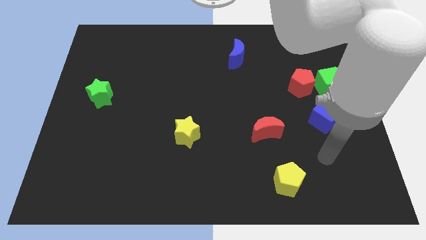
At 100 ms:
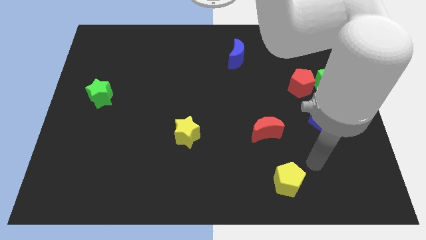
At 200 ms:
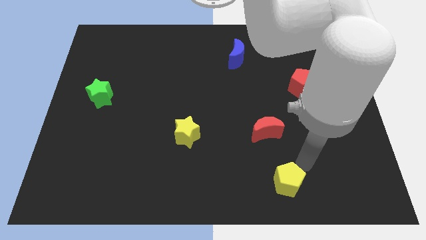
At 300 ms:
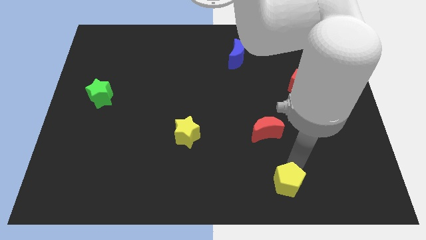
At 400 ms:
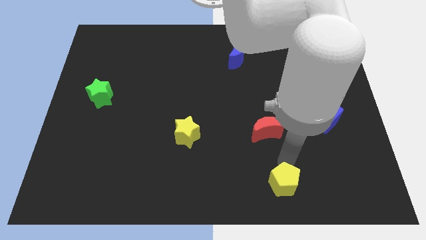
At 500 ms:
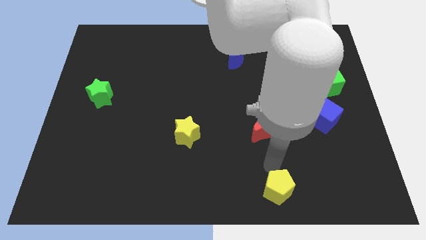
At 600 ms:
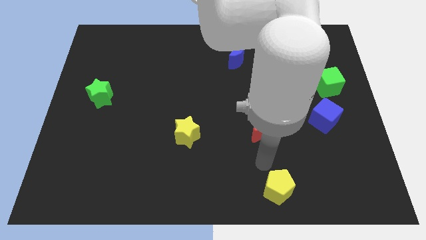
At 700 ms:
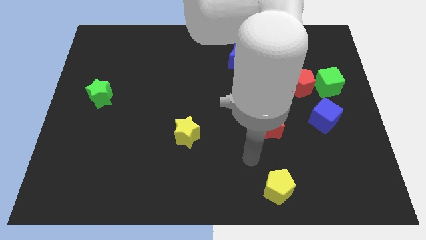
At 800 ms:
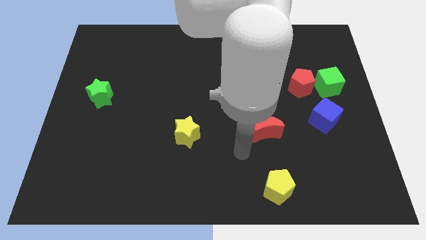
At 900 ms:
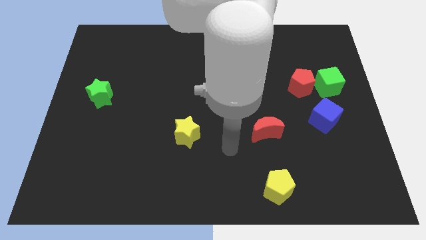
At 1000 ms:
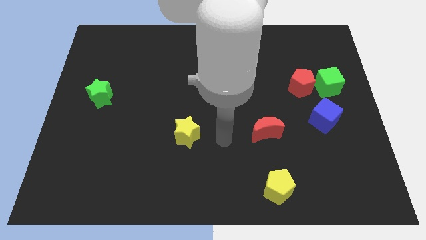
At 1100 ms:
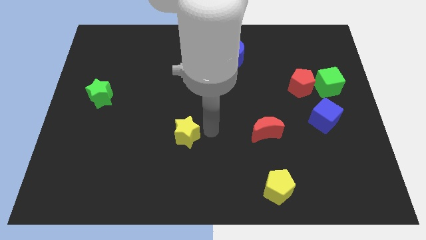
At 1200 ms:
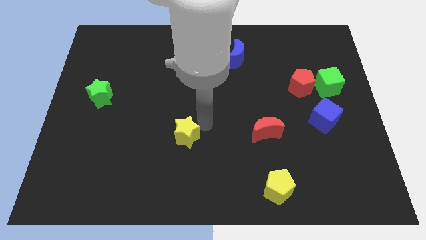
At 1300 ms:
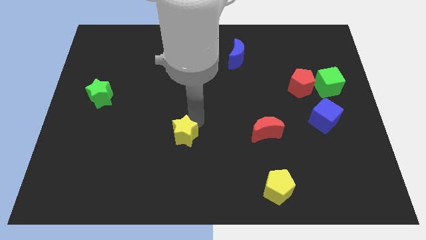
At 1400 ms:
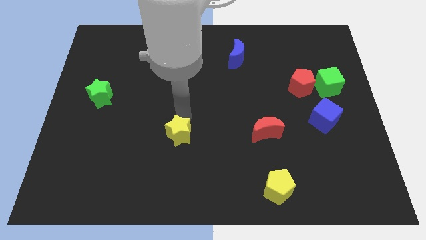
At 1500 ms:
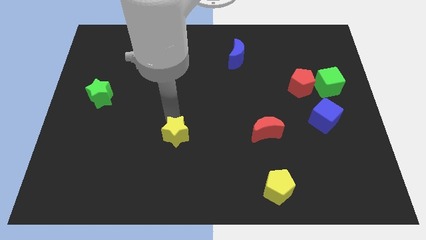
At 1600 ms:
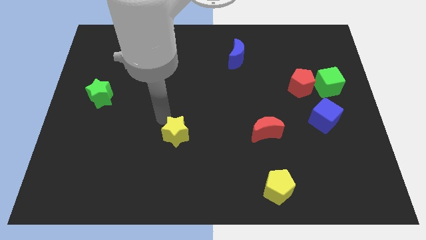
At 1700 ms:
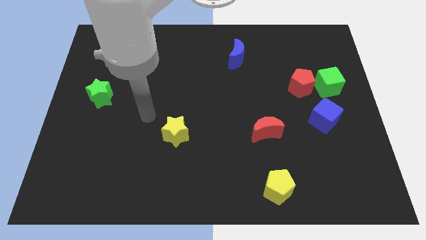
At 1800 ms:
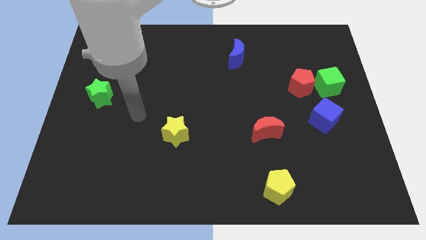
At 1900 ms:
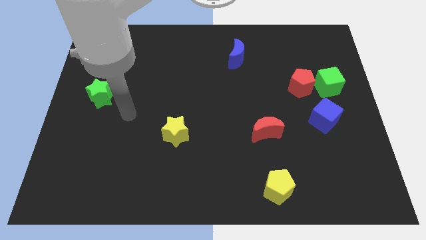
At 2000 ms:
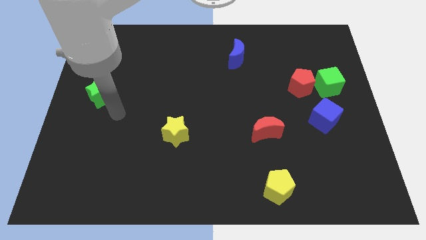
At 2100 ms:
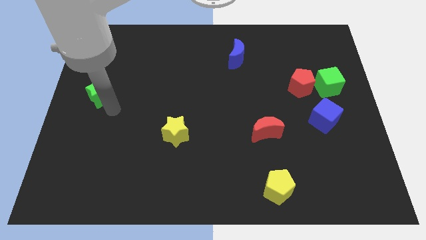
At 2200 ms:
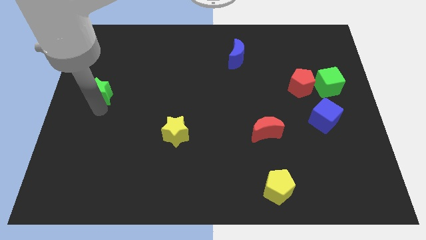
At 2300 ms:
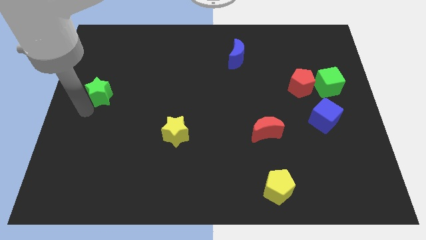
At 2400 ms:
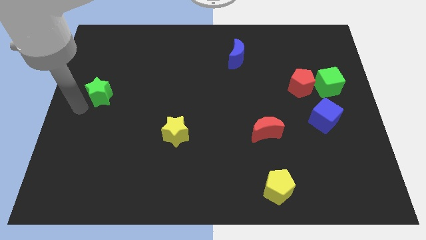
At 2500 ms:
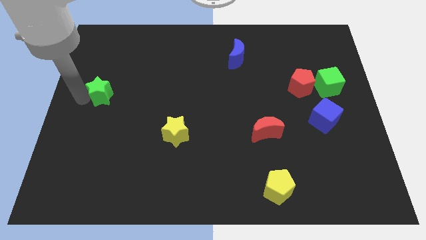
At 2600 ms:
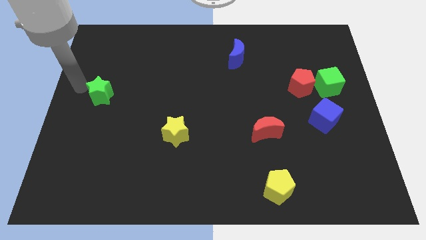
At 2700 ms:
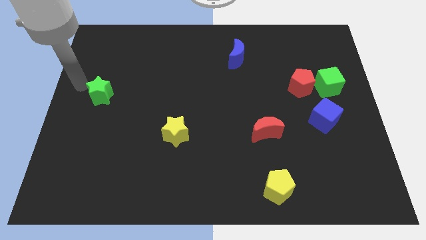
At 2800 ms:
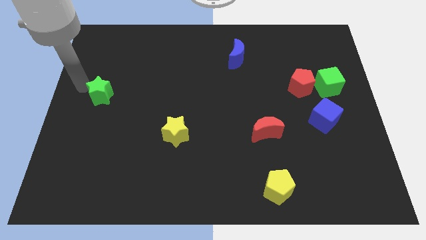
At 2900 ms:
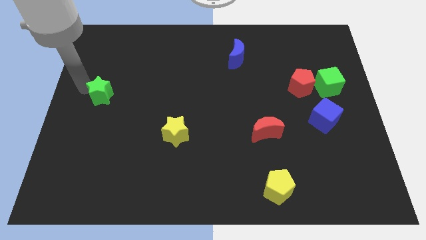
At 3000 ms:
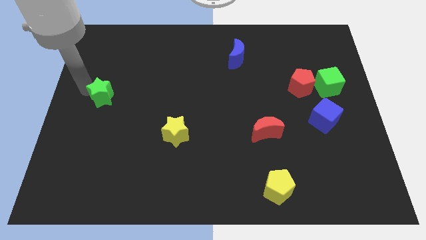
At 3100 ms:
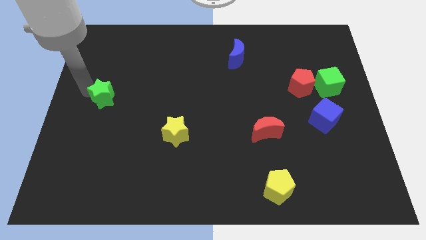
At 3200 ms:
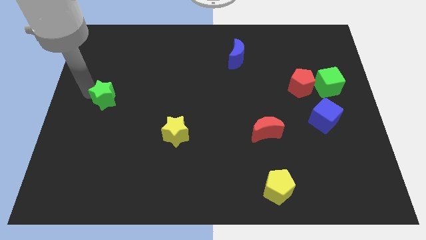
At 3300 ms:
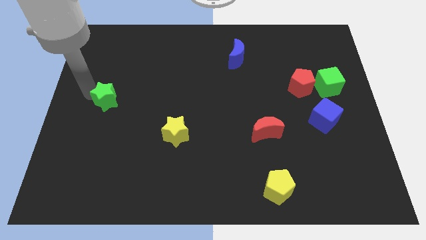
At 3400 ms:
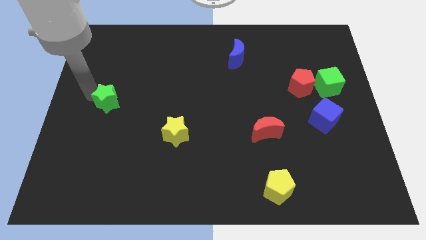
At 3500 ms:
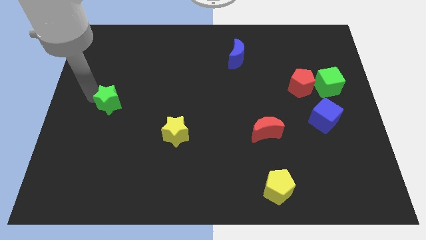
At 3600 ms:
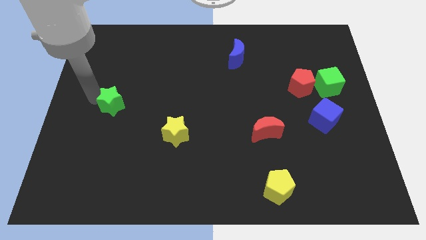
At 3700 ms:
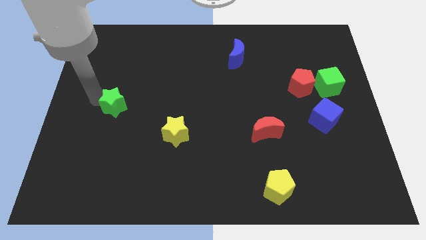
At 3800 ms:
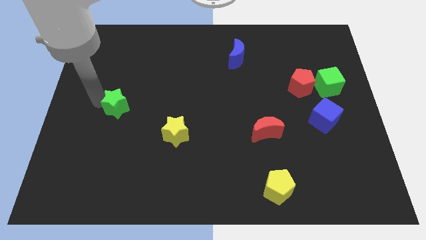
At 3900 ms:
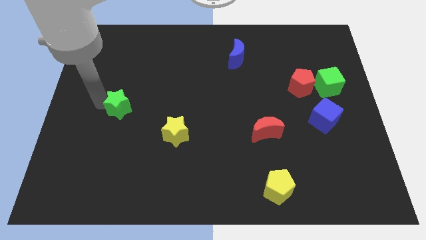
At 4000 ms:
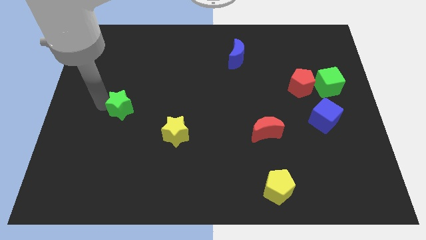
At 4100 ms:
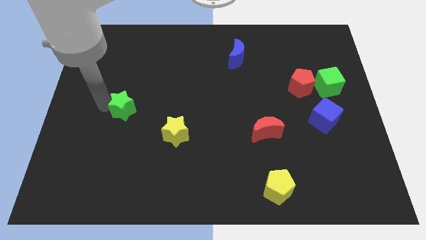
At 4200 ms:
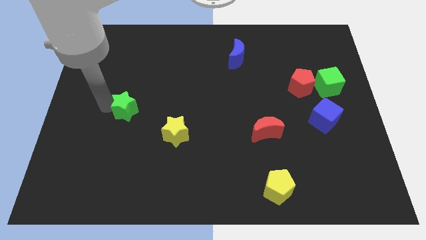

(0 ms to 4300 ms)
slightly slide the green star downwards and then right

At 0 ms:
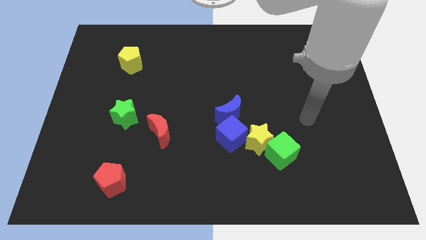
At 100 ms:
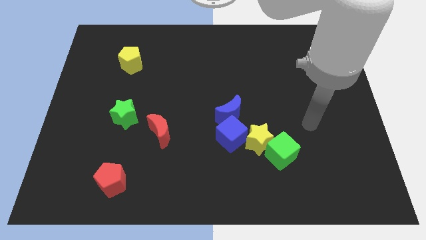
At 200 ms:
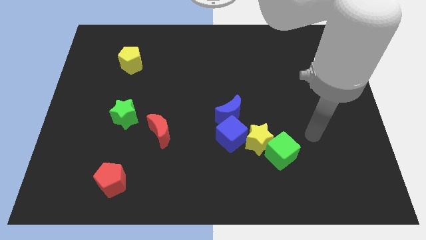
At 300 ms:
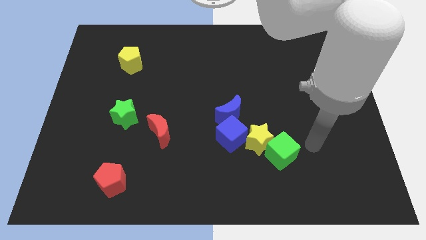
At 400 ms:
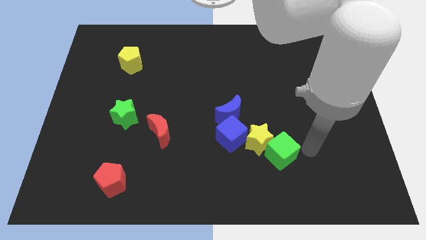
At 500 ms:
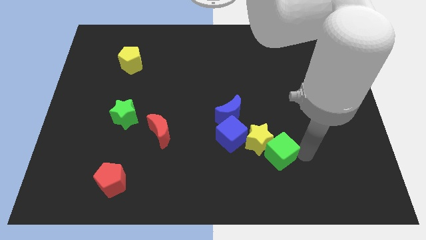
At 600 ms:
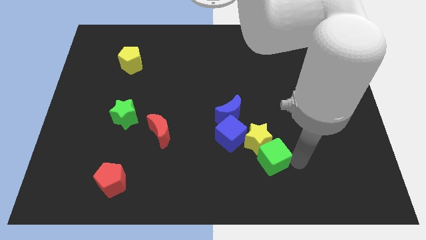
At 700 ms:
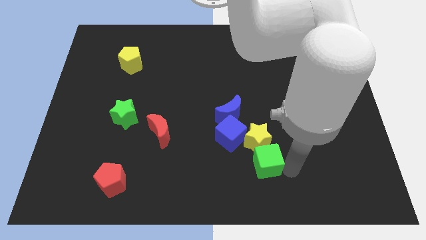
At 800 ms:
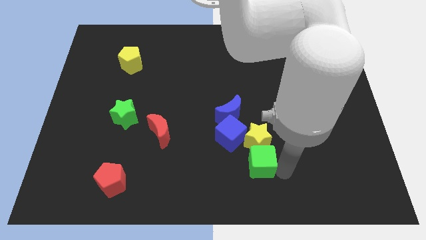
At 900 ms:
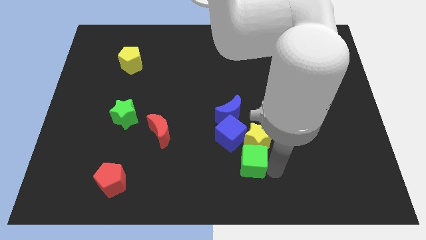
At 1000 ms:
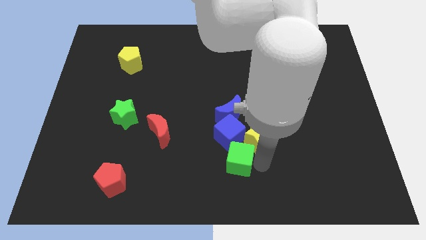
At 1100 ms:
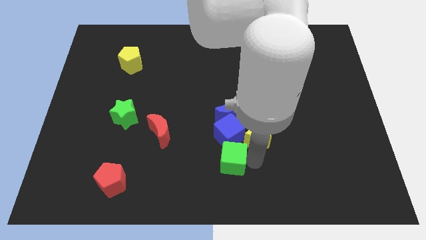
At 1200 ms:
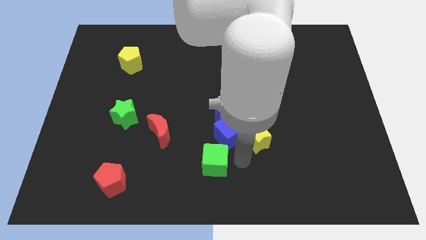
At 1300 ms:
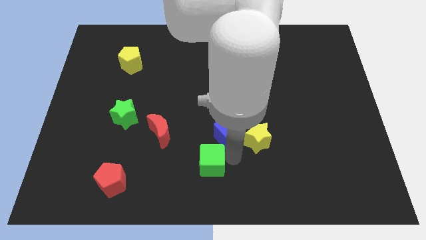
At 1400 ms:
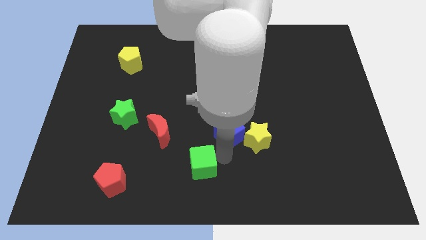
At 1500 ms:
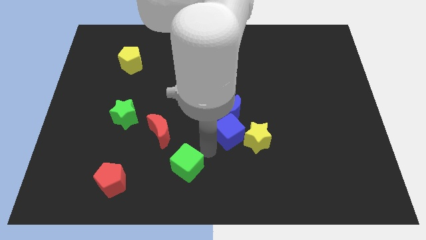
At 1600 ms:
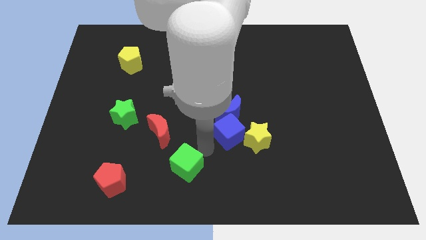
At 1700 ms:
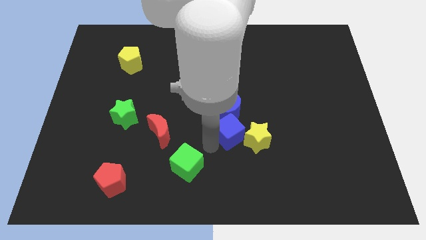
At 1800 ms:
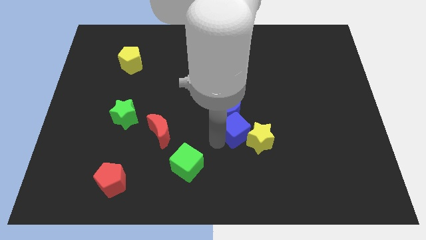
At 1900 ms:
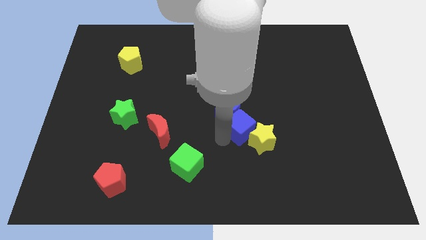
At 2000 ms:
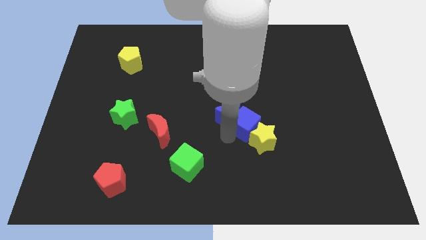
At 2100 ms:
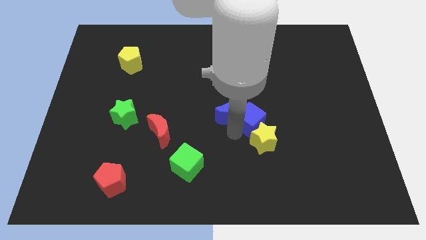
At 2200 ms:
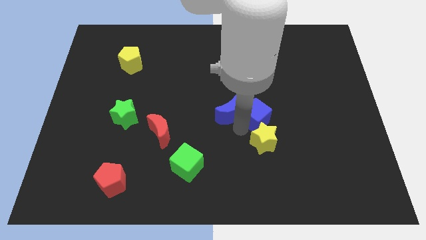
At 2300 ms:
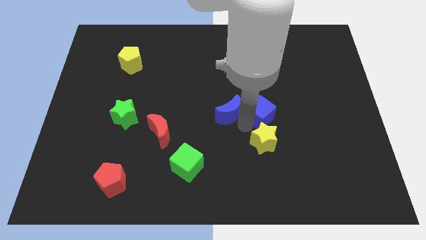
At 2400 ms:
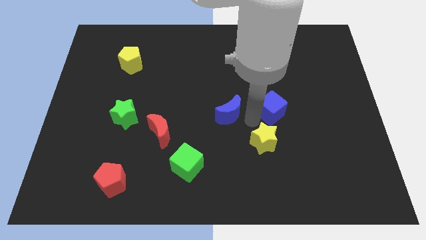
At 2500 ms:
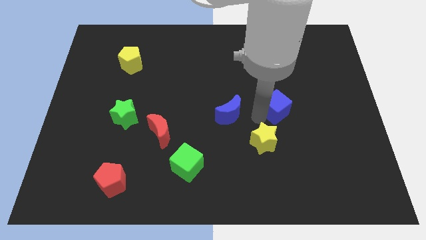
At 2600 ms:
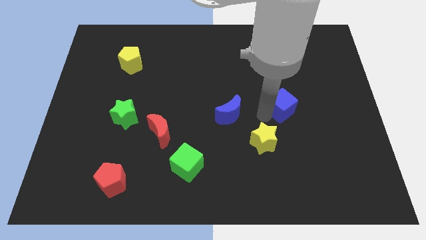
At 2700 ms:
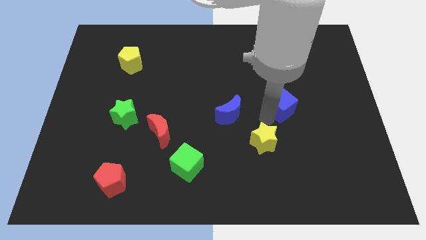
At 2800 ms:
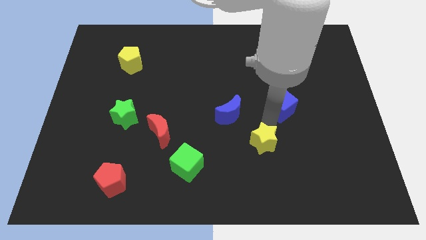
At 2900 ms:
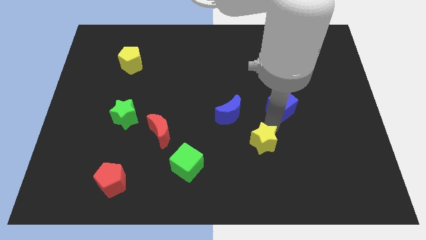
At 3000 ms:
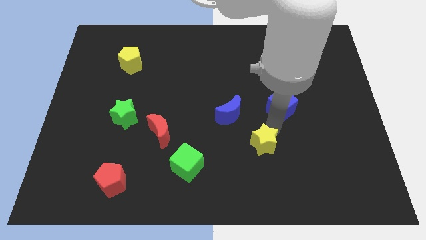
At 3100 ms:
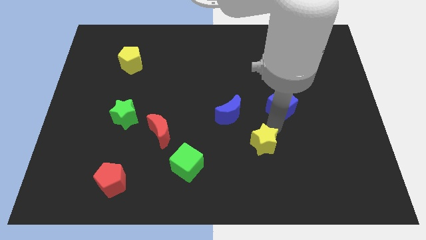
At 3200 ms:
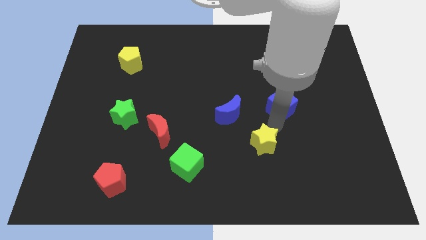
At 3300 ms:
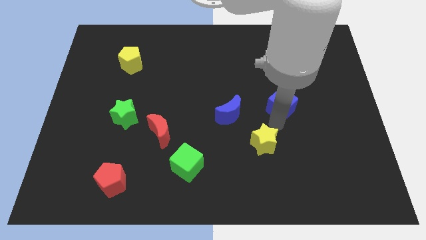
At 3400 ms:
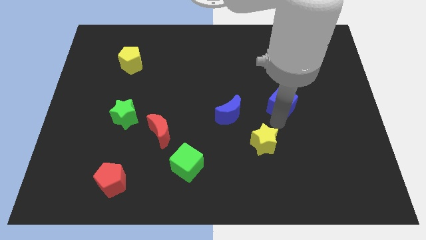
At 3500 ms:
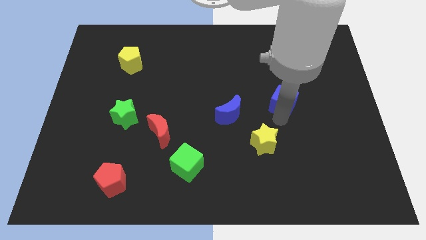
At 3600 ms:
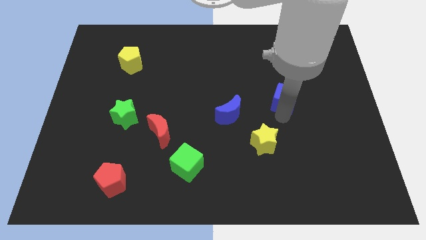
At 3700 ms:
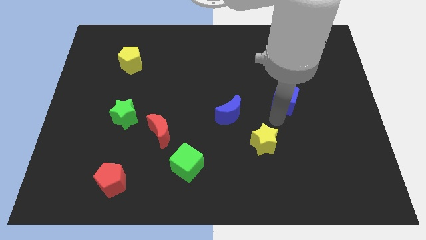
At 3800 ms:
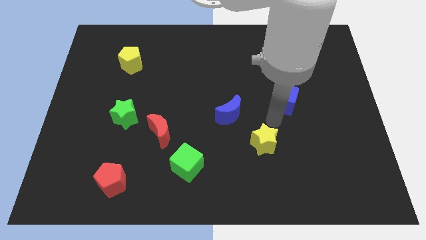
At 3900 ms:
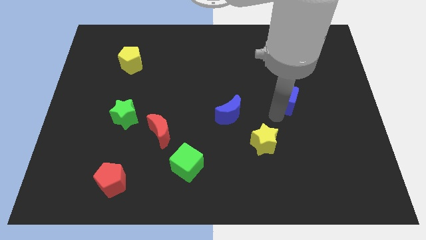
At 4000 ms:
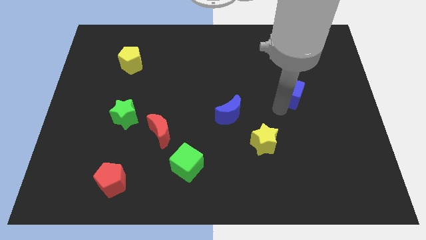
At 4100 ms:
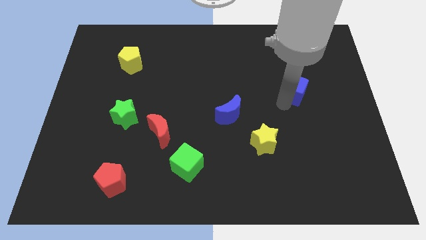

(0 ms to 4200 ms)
slide the blue cube diagonally up and to the right

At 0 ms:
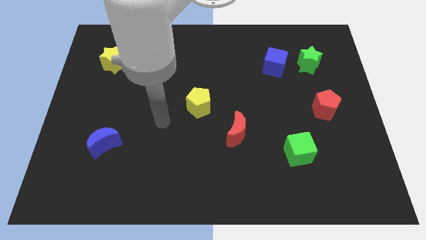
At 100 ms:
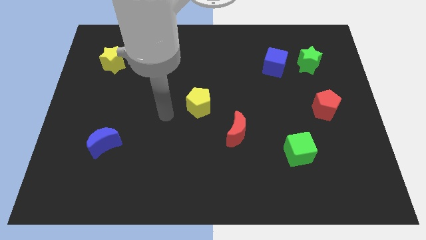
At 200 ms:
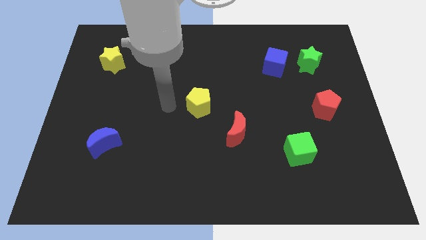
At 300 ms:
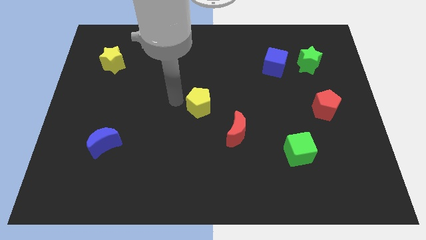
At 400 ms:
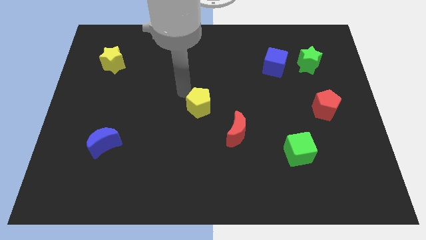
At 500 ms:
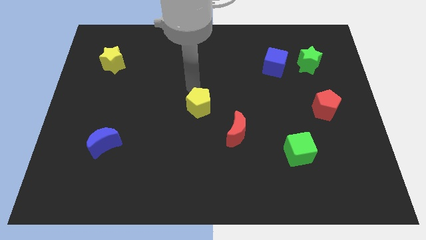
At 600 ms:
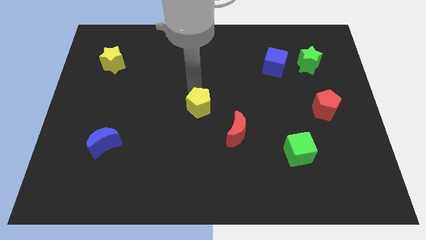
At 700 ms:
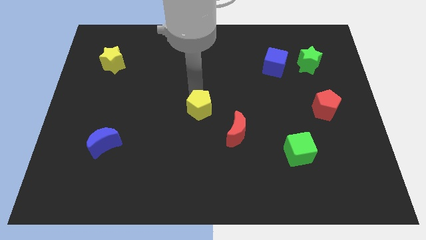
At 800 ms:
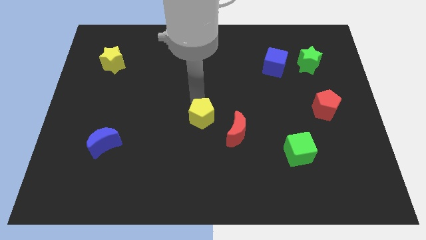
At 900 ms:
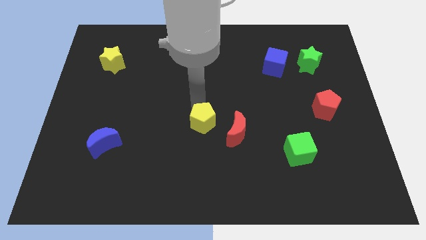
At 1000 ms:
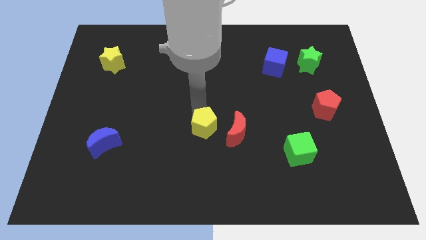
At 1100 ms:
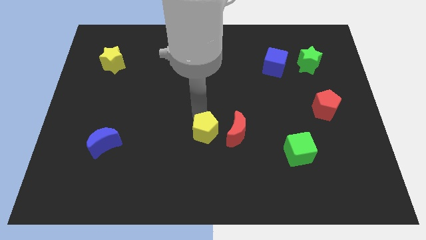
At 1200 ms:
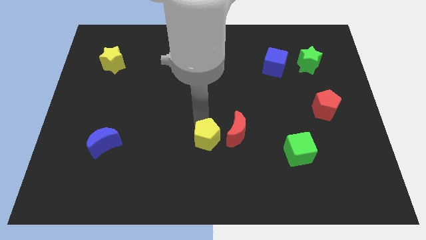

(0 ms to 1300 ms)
slightly slide the yellow pentagon downwards and right diagonally
